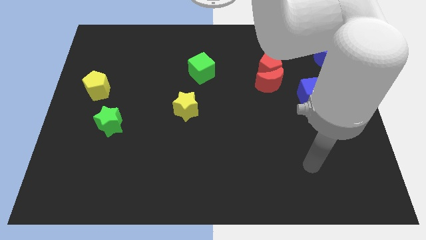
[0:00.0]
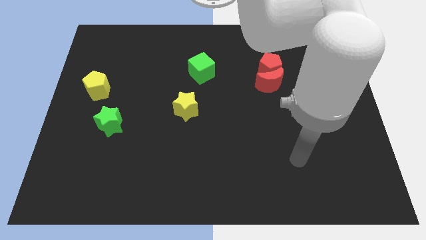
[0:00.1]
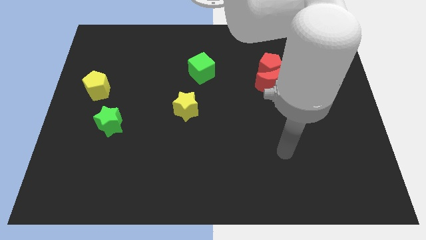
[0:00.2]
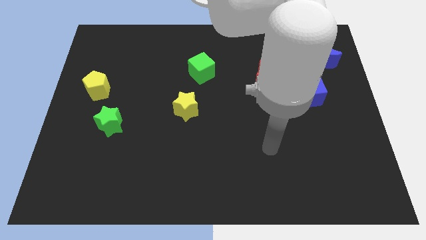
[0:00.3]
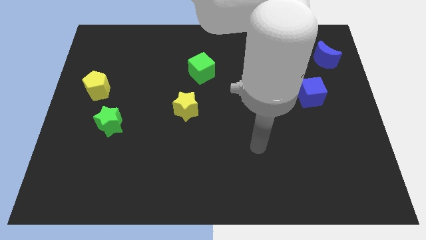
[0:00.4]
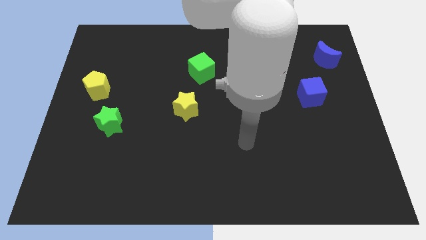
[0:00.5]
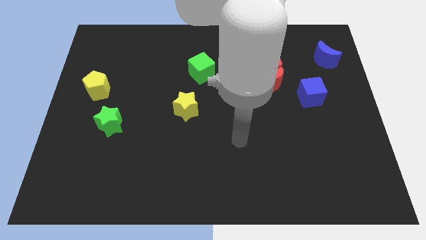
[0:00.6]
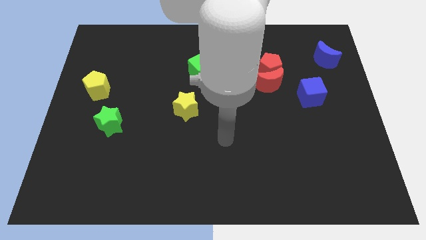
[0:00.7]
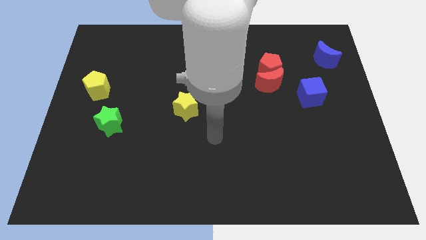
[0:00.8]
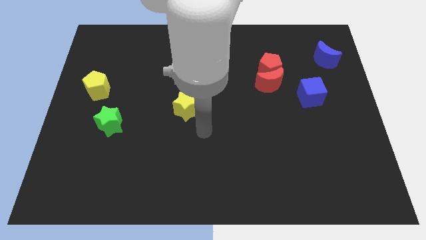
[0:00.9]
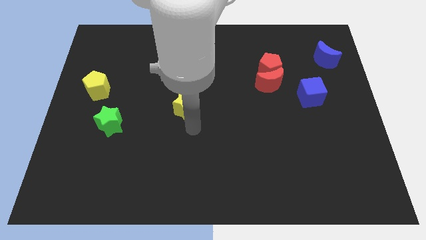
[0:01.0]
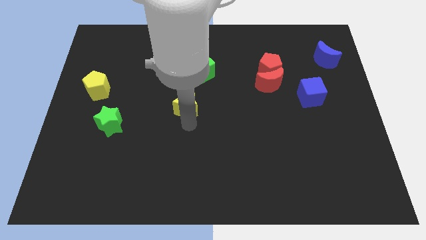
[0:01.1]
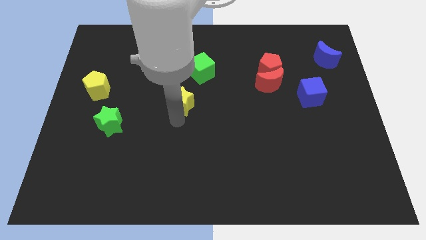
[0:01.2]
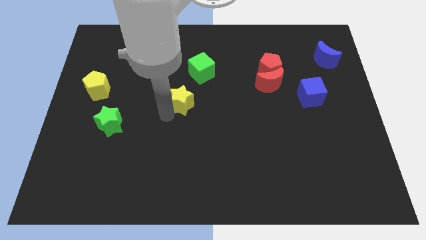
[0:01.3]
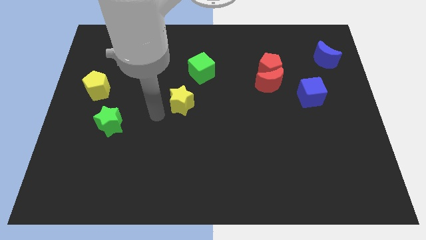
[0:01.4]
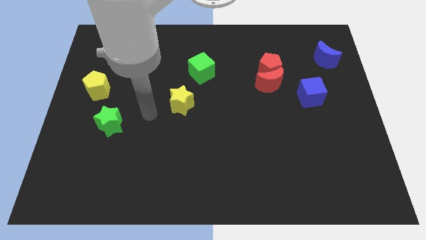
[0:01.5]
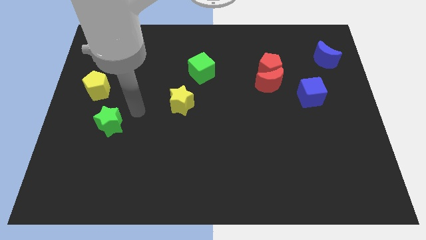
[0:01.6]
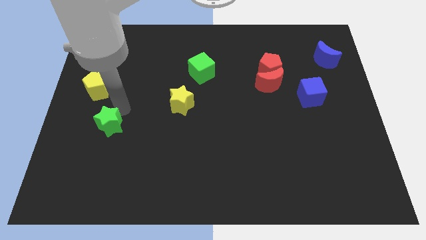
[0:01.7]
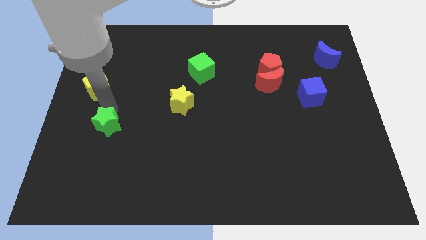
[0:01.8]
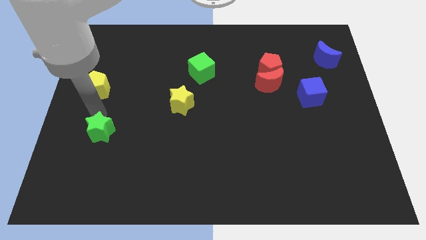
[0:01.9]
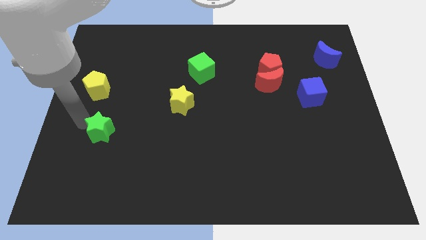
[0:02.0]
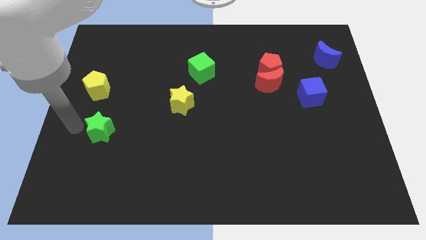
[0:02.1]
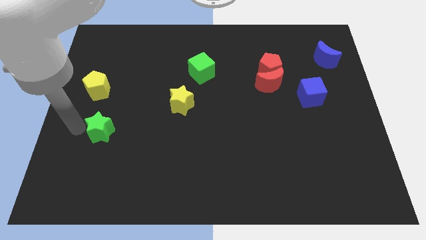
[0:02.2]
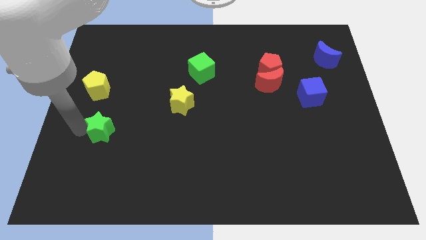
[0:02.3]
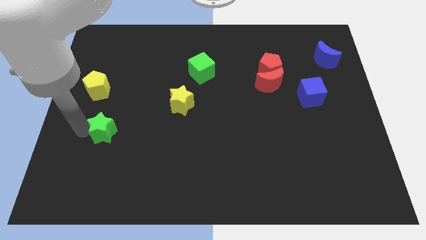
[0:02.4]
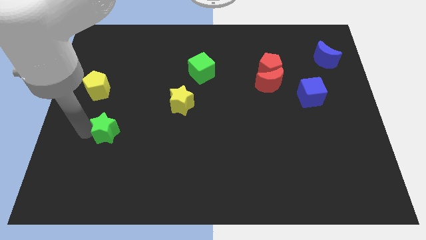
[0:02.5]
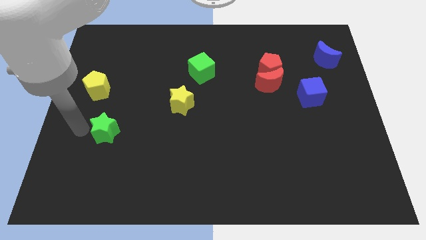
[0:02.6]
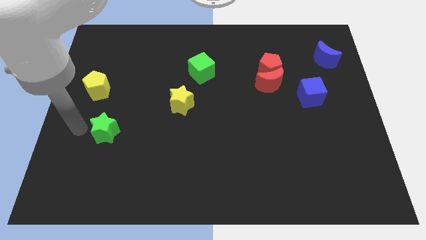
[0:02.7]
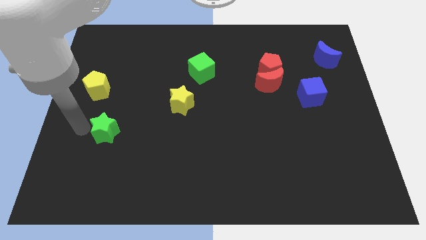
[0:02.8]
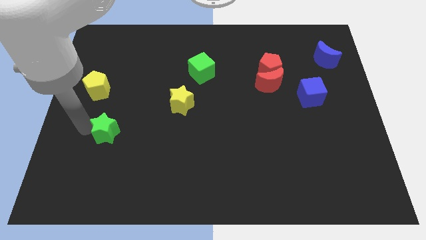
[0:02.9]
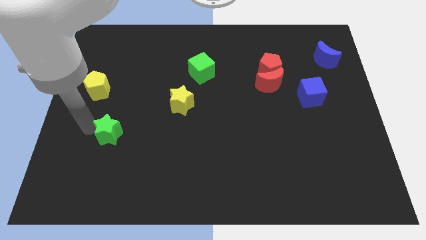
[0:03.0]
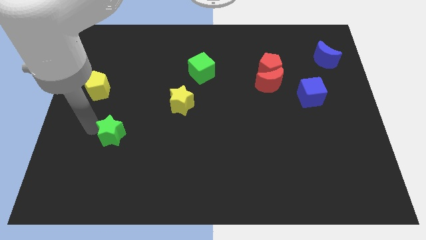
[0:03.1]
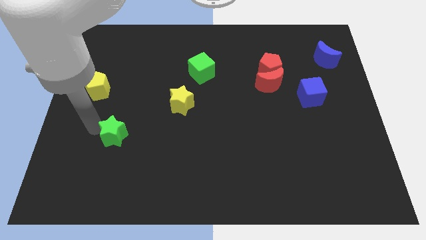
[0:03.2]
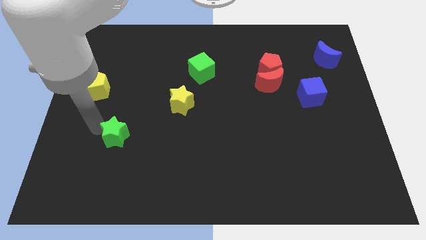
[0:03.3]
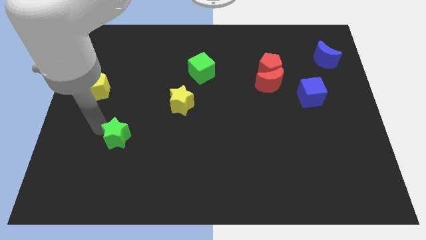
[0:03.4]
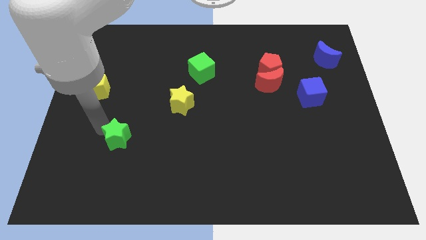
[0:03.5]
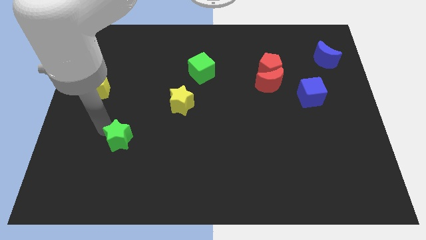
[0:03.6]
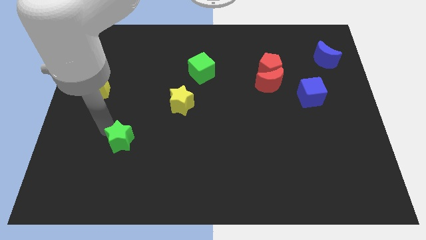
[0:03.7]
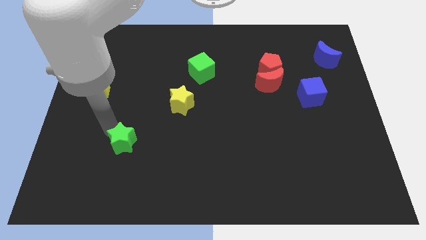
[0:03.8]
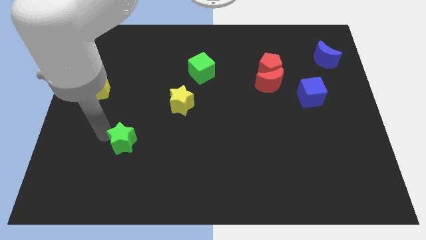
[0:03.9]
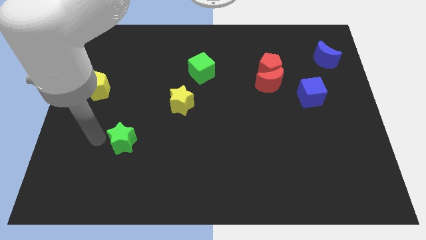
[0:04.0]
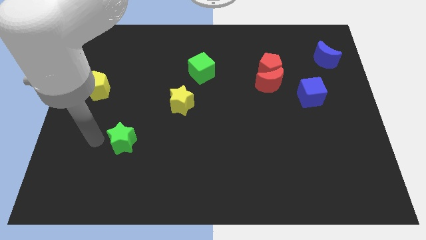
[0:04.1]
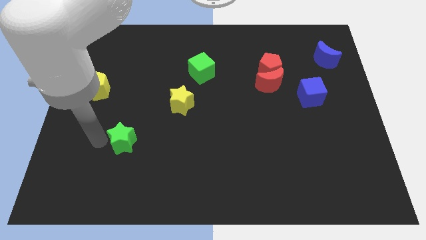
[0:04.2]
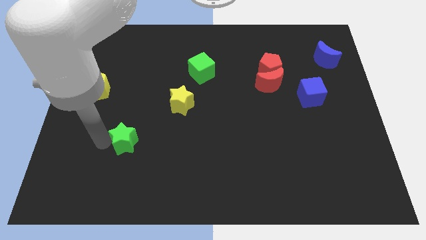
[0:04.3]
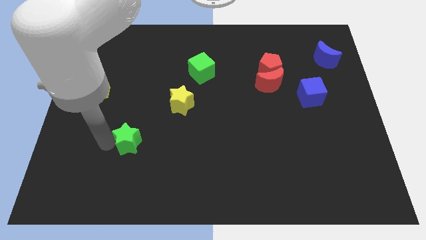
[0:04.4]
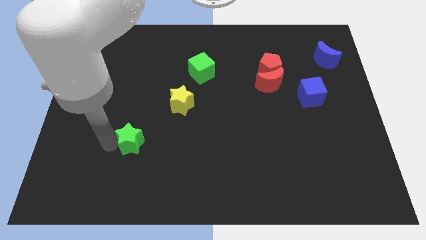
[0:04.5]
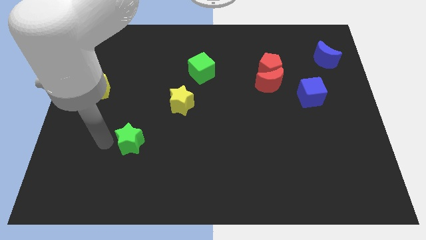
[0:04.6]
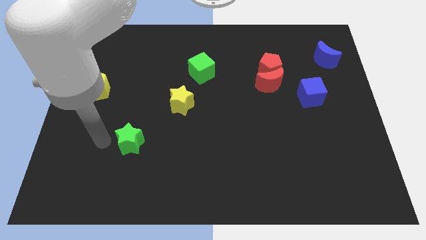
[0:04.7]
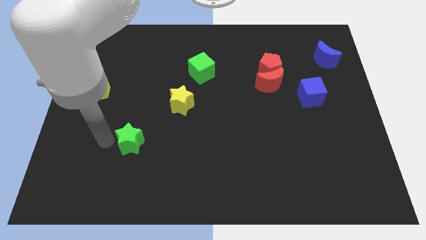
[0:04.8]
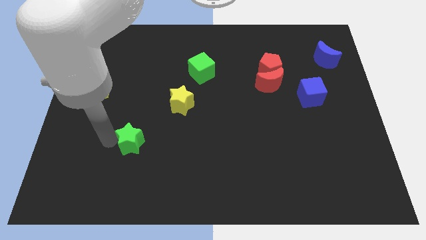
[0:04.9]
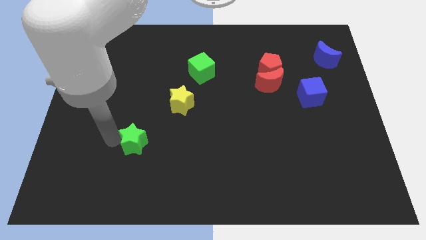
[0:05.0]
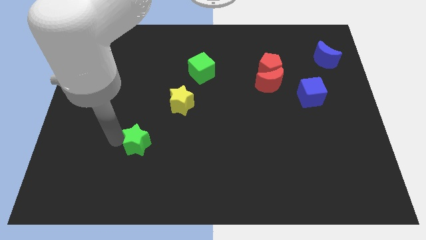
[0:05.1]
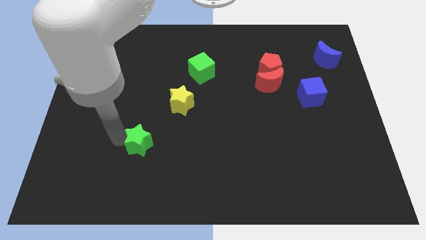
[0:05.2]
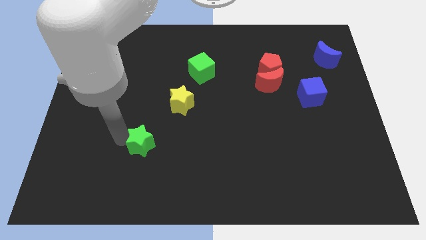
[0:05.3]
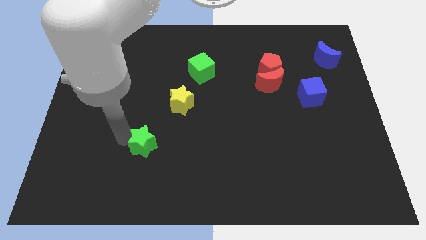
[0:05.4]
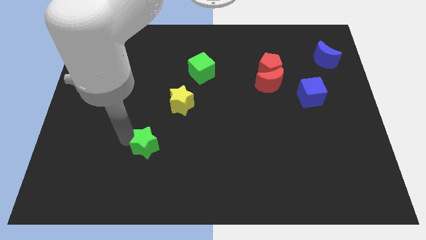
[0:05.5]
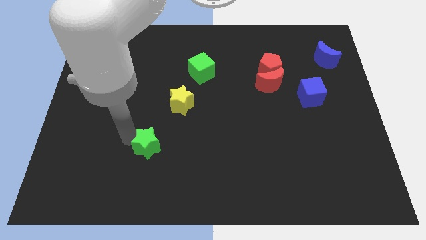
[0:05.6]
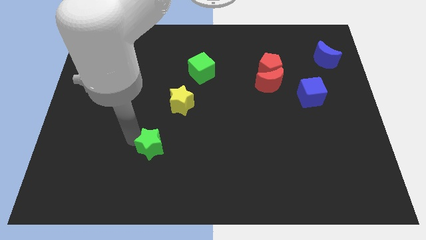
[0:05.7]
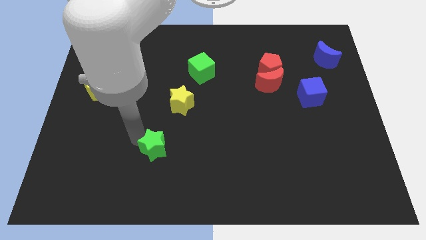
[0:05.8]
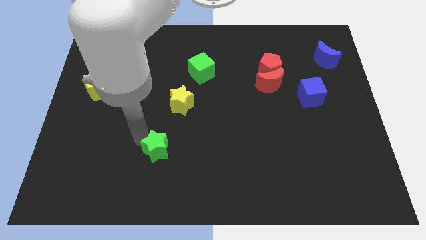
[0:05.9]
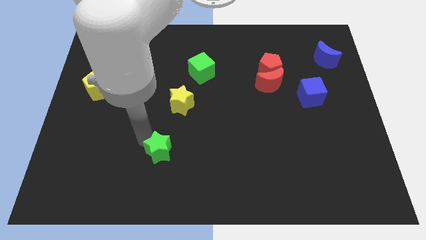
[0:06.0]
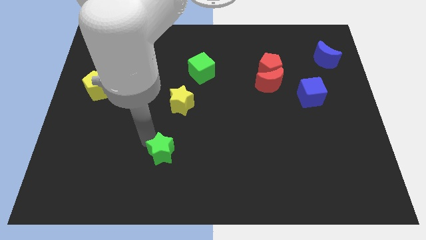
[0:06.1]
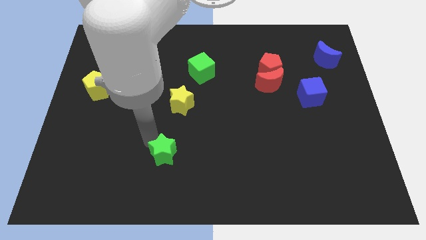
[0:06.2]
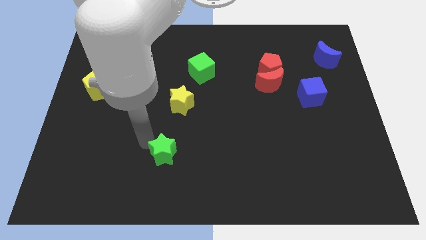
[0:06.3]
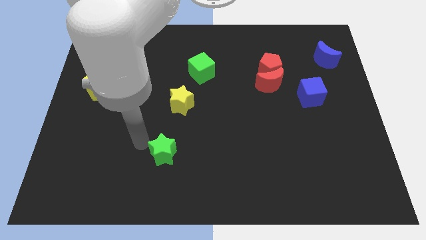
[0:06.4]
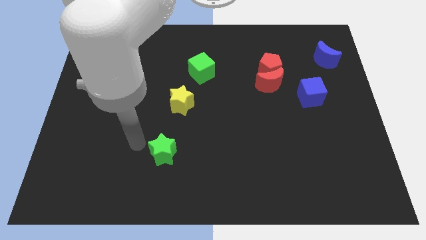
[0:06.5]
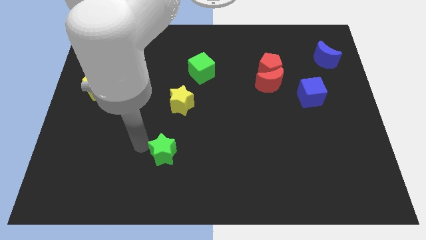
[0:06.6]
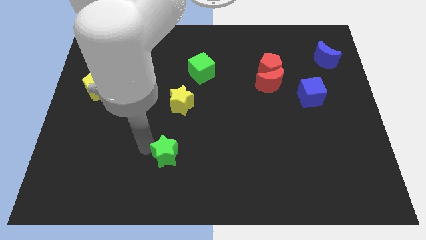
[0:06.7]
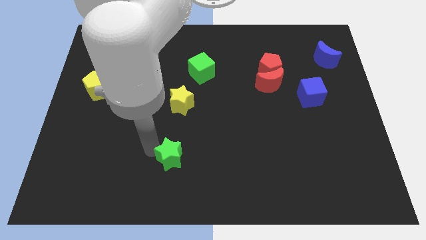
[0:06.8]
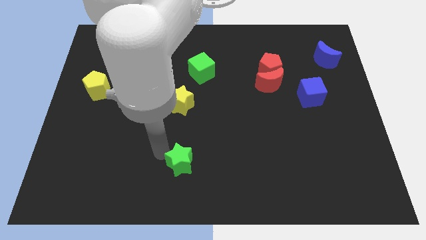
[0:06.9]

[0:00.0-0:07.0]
push the green star to the bottom
